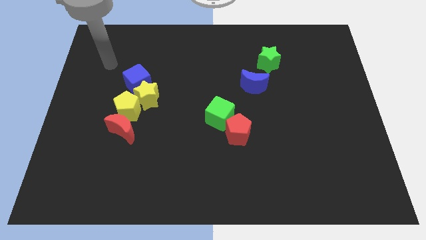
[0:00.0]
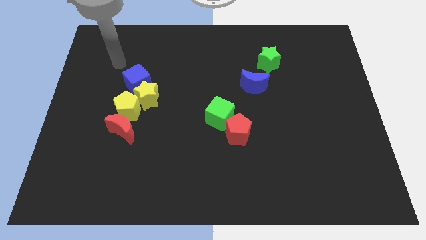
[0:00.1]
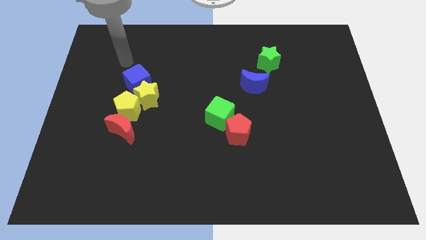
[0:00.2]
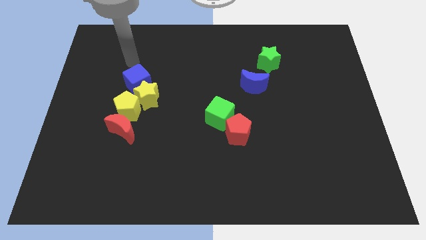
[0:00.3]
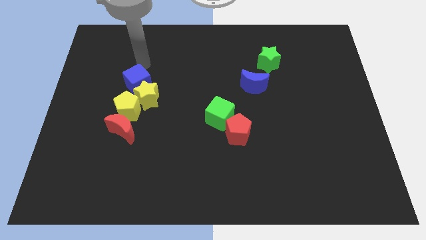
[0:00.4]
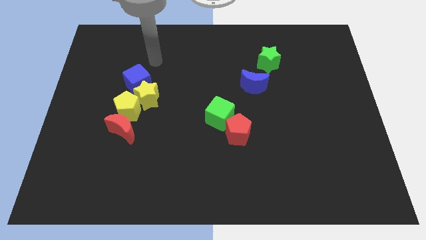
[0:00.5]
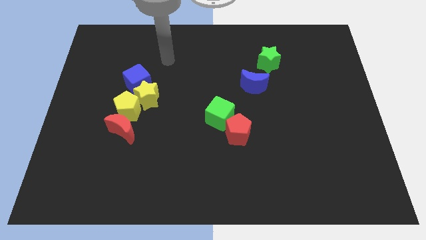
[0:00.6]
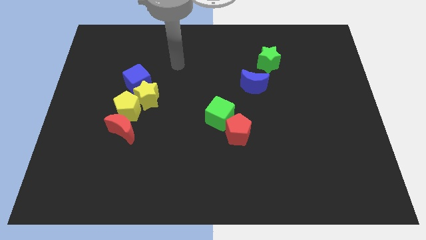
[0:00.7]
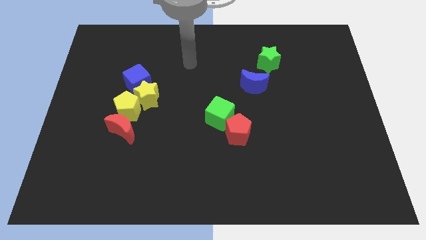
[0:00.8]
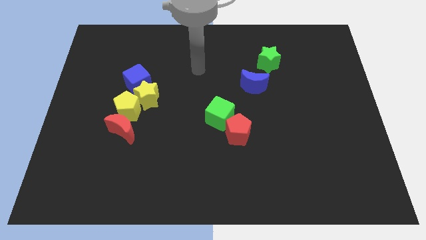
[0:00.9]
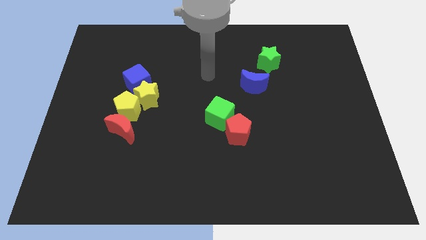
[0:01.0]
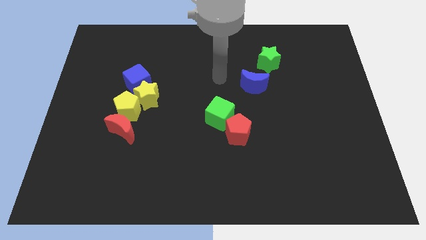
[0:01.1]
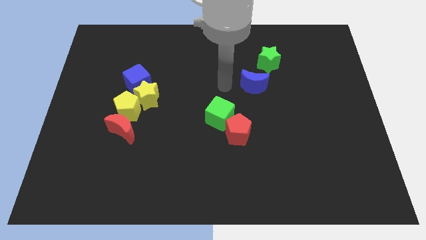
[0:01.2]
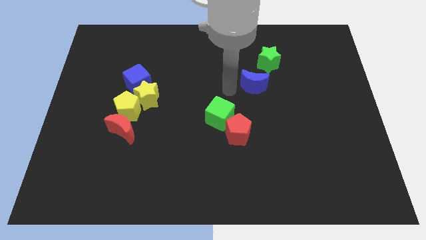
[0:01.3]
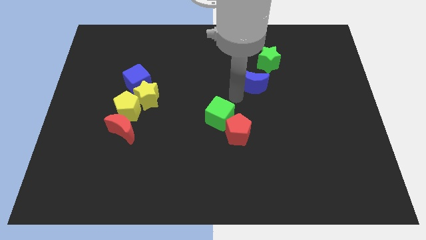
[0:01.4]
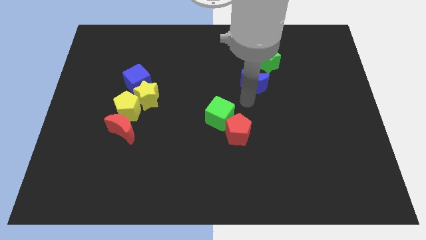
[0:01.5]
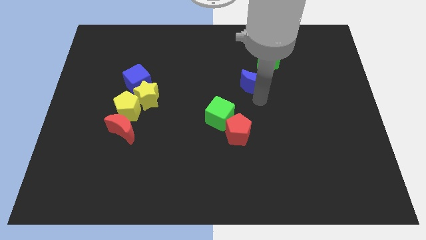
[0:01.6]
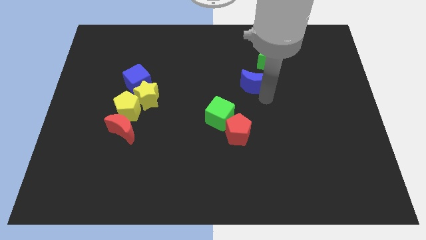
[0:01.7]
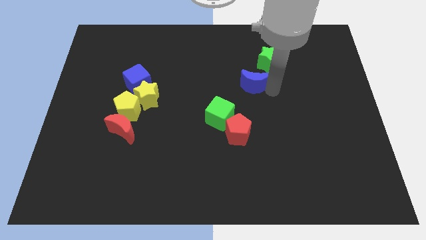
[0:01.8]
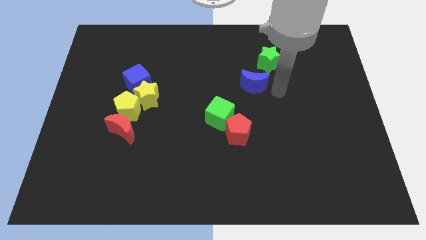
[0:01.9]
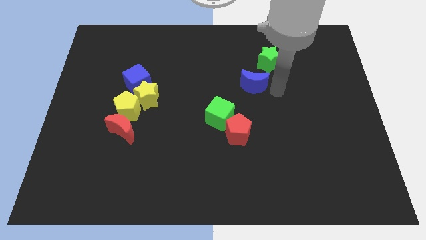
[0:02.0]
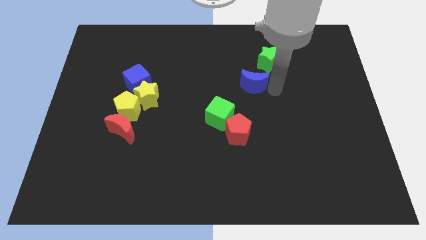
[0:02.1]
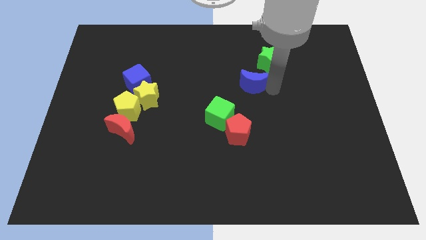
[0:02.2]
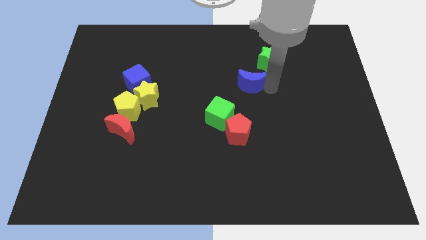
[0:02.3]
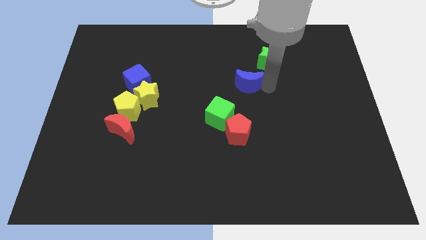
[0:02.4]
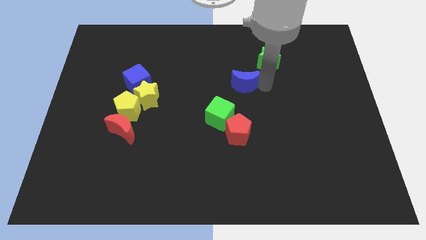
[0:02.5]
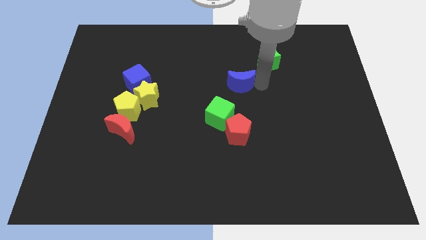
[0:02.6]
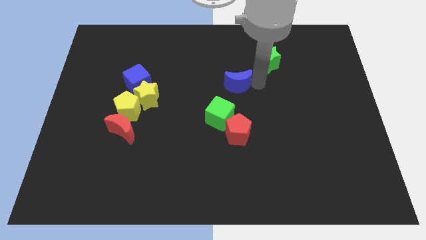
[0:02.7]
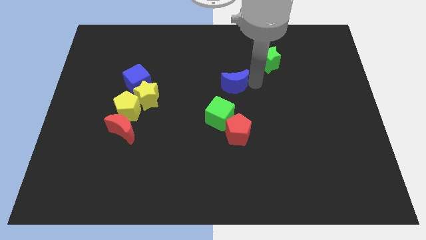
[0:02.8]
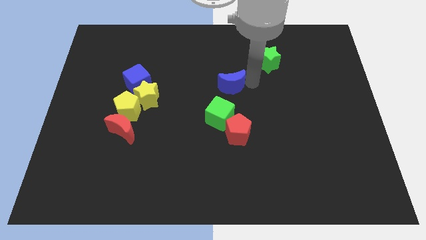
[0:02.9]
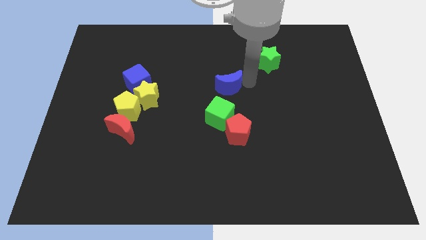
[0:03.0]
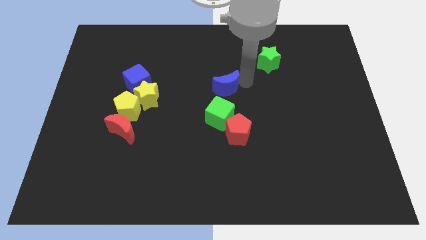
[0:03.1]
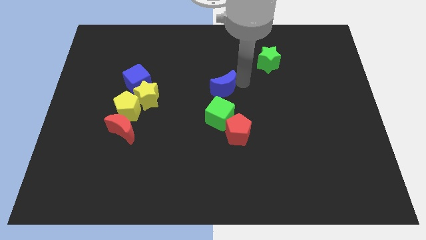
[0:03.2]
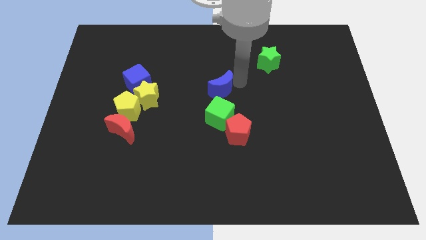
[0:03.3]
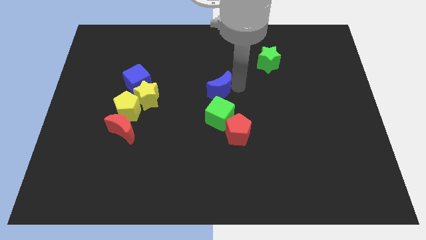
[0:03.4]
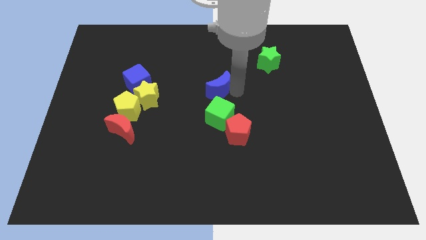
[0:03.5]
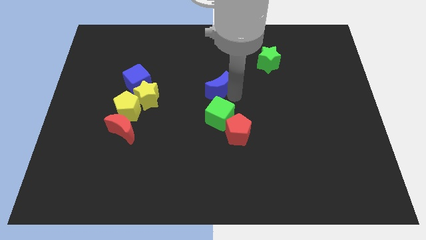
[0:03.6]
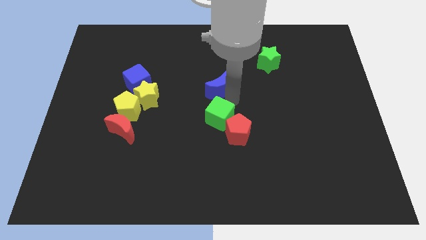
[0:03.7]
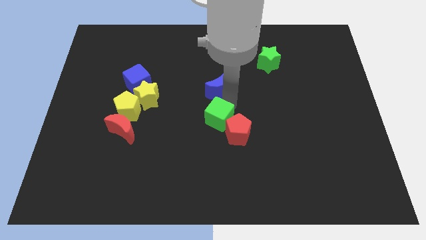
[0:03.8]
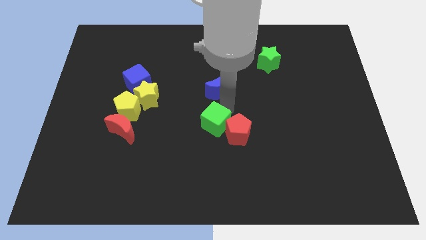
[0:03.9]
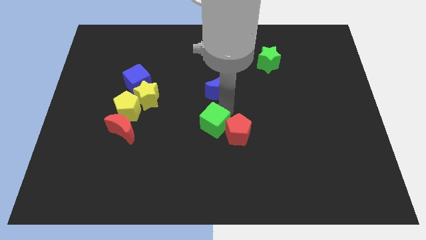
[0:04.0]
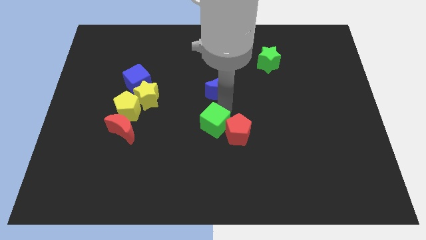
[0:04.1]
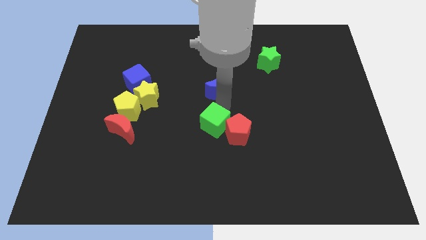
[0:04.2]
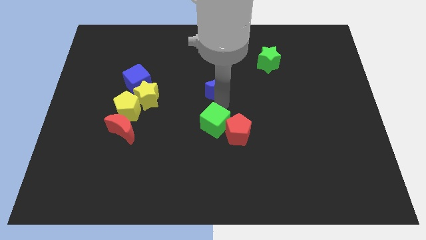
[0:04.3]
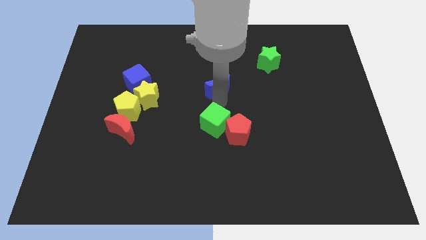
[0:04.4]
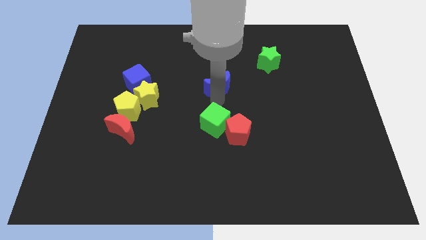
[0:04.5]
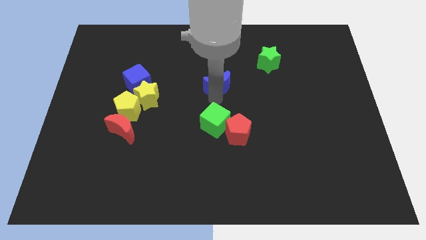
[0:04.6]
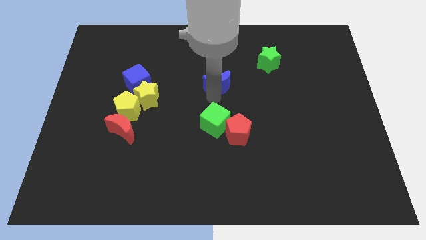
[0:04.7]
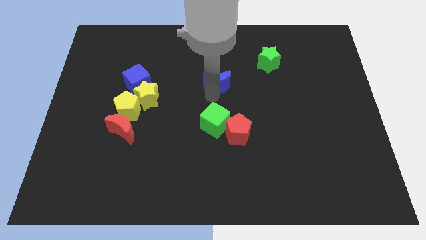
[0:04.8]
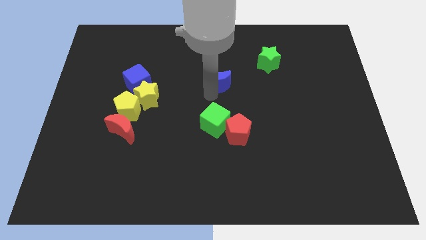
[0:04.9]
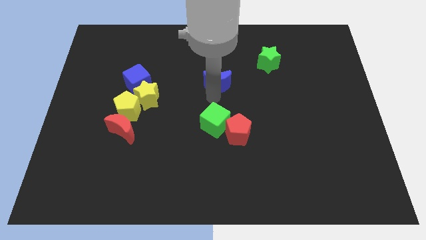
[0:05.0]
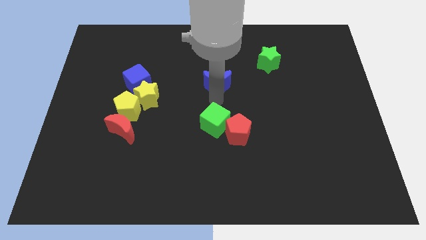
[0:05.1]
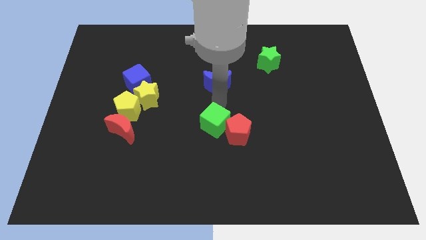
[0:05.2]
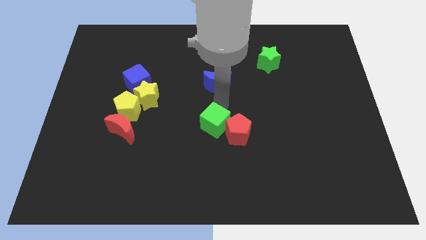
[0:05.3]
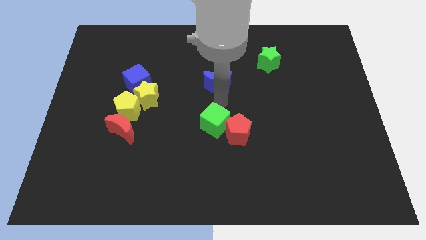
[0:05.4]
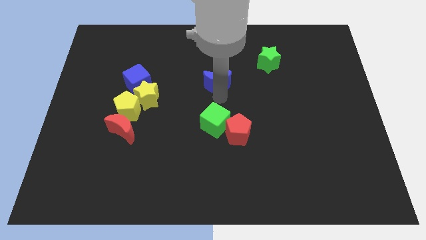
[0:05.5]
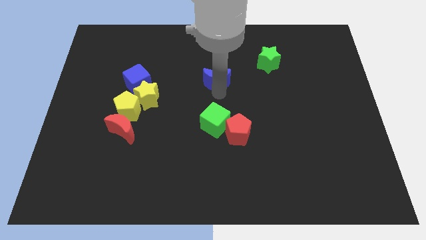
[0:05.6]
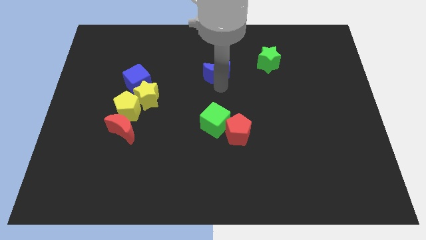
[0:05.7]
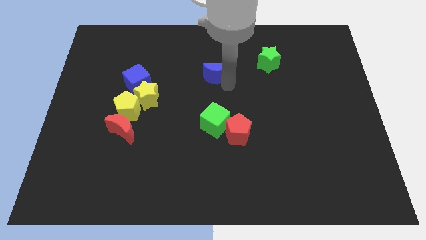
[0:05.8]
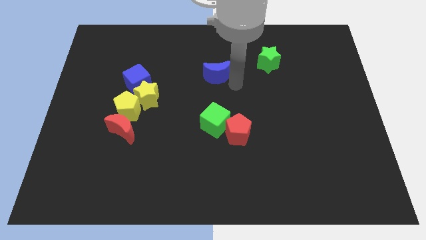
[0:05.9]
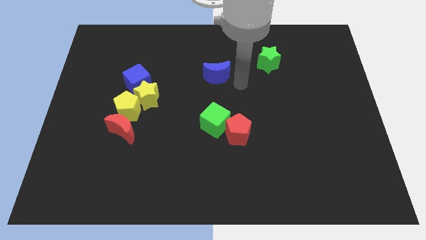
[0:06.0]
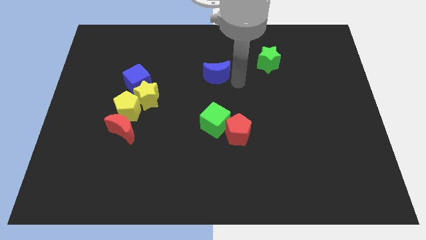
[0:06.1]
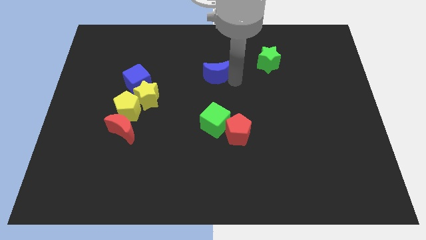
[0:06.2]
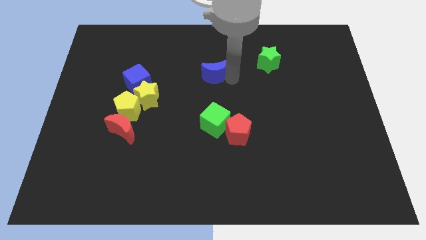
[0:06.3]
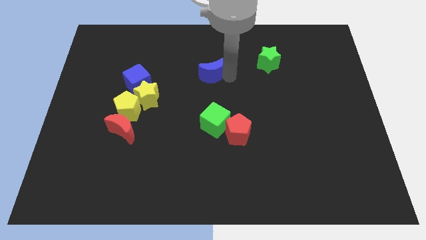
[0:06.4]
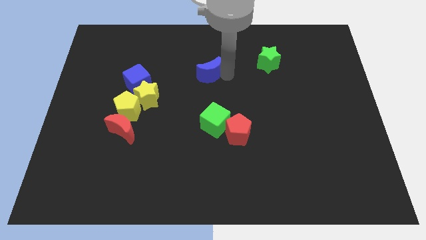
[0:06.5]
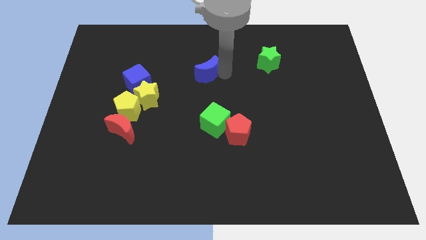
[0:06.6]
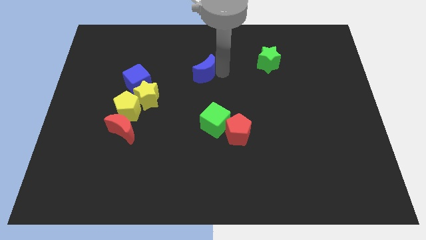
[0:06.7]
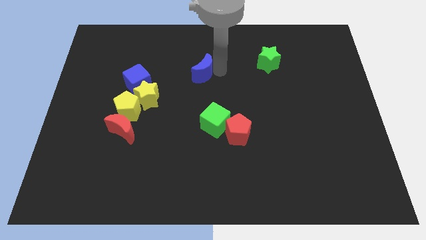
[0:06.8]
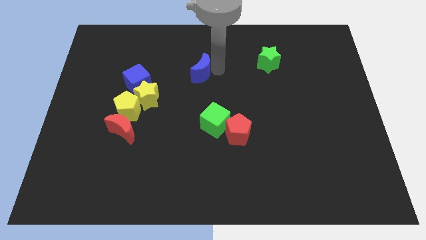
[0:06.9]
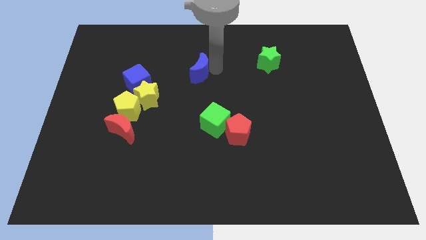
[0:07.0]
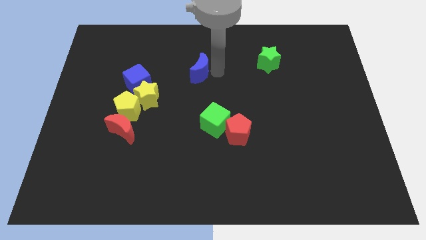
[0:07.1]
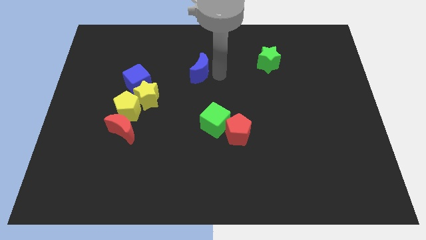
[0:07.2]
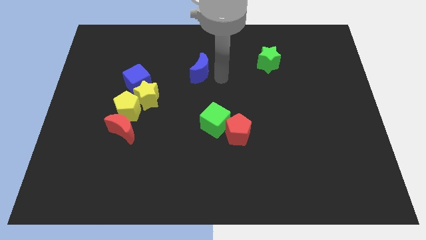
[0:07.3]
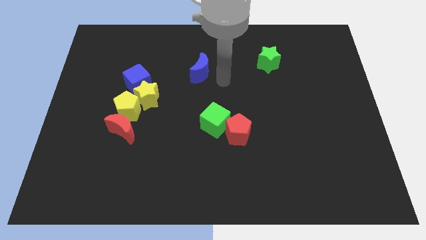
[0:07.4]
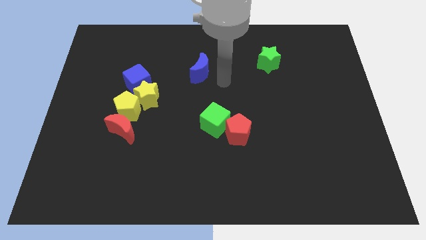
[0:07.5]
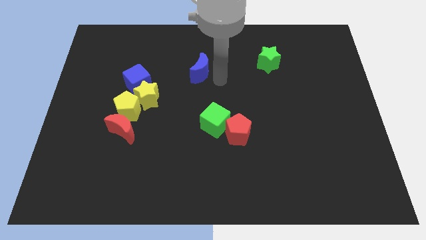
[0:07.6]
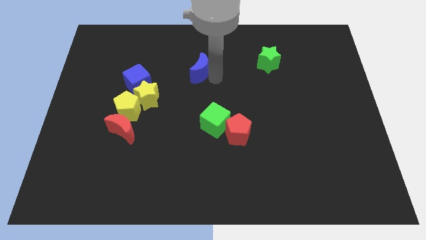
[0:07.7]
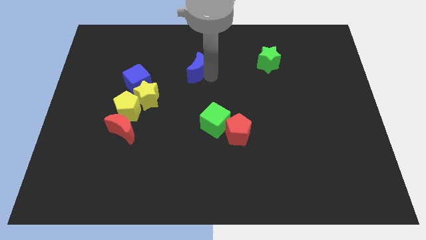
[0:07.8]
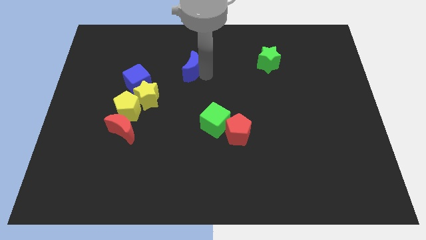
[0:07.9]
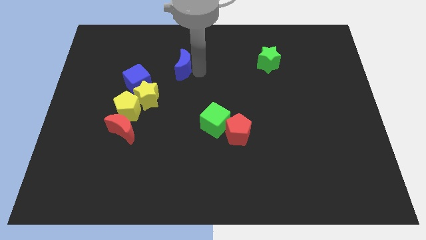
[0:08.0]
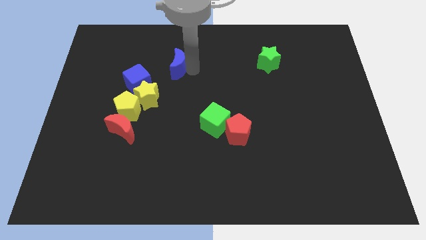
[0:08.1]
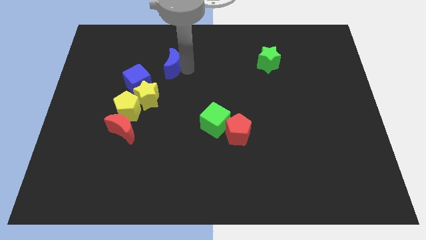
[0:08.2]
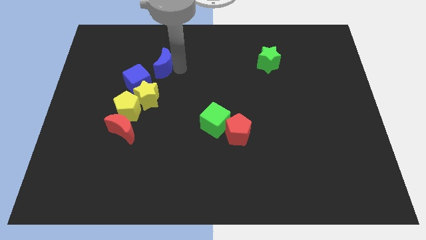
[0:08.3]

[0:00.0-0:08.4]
move the blue moon to the left

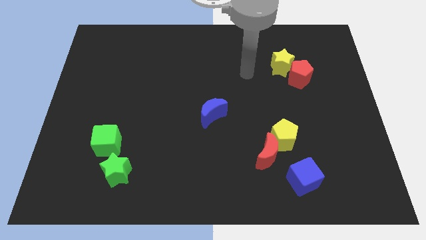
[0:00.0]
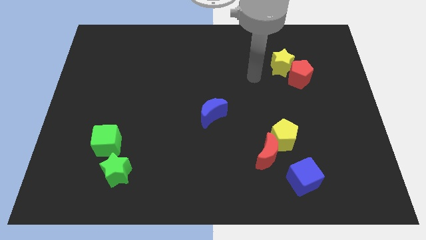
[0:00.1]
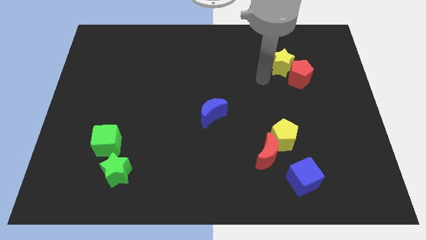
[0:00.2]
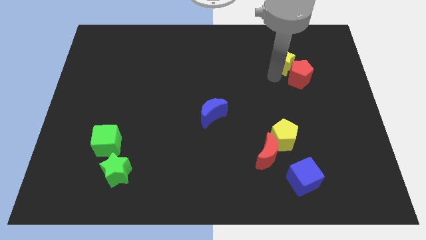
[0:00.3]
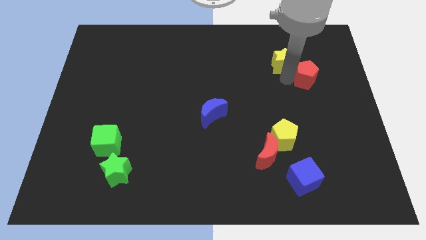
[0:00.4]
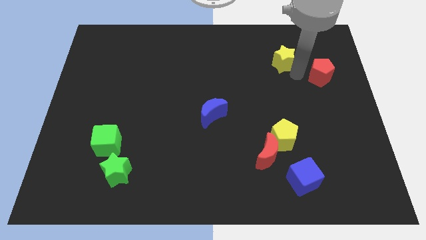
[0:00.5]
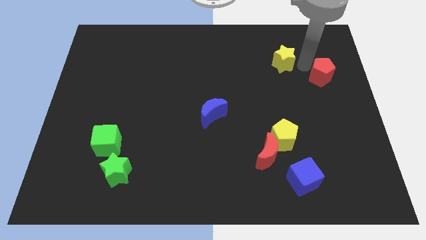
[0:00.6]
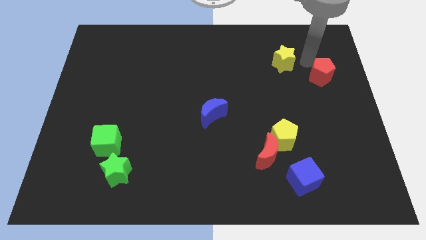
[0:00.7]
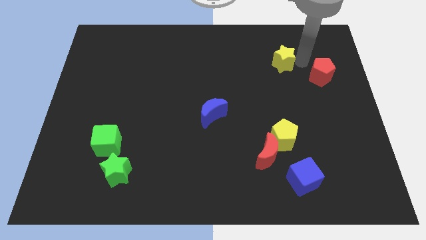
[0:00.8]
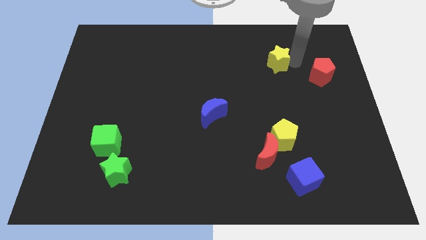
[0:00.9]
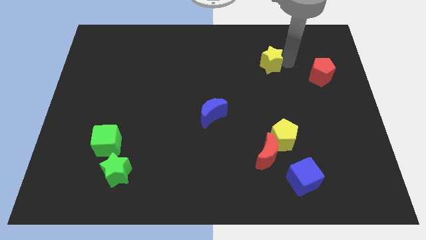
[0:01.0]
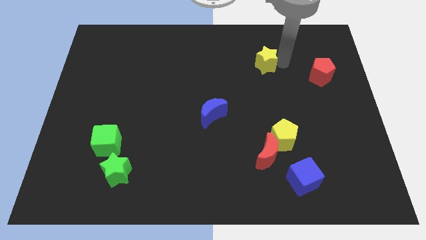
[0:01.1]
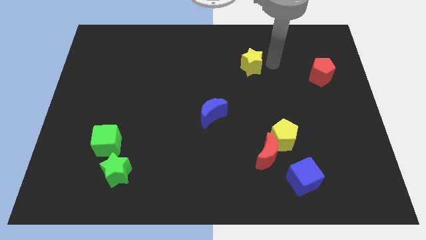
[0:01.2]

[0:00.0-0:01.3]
slightly slide the yellow star to the left
